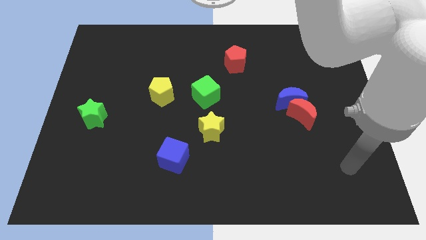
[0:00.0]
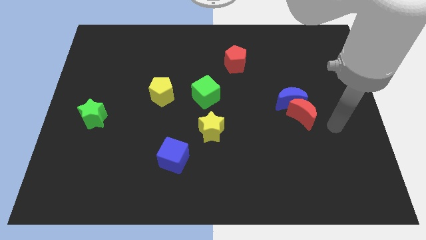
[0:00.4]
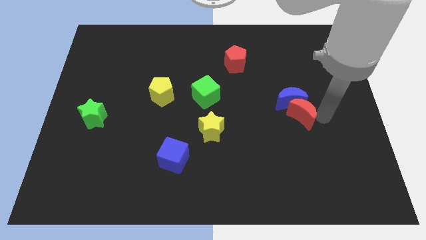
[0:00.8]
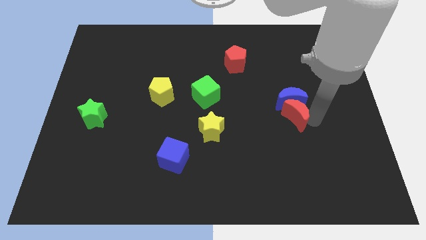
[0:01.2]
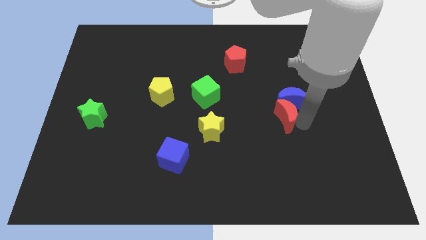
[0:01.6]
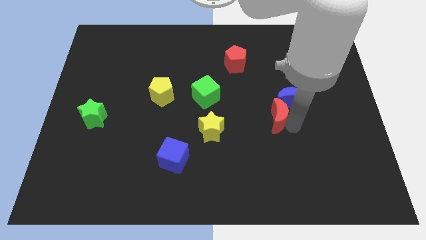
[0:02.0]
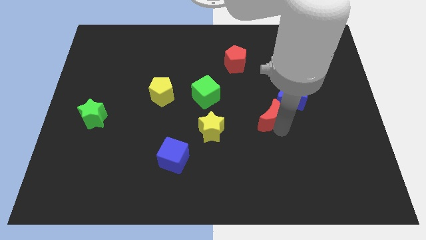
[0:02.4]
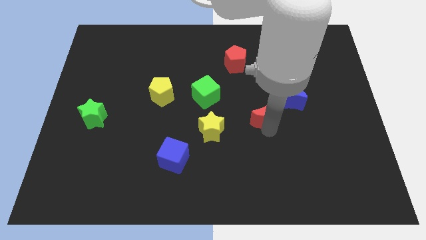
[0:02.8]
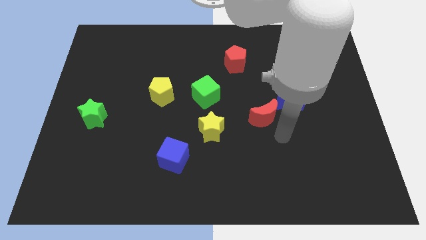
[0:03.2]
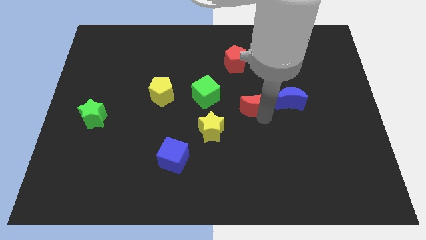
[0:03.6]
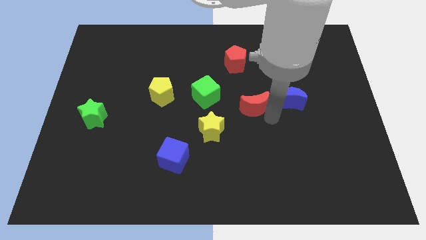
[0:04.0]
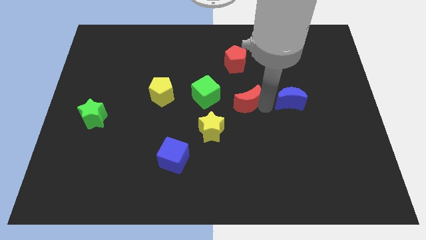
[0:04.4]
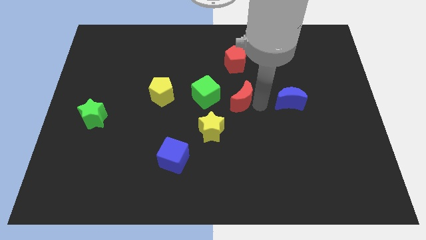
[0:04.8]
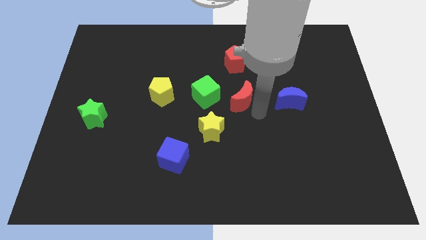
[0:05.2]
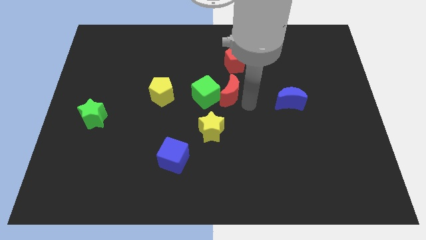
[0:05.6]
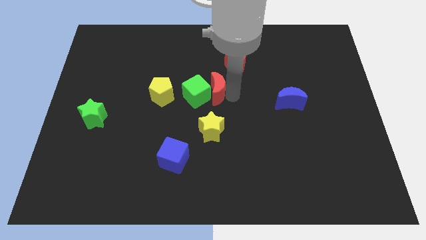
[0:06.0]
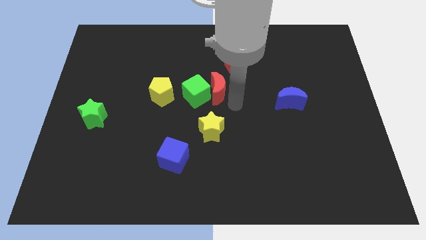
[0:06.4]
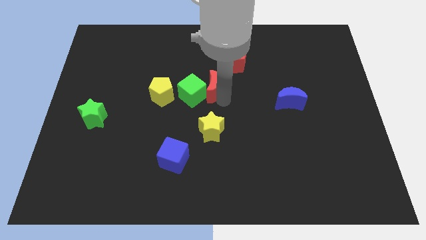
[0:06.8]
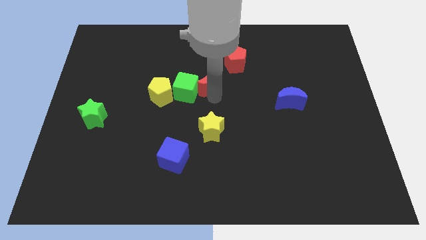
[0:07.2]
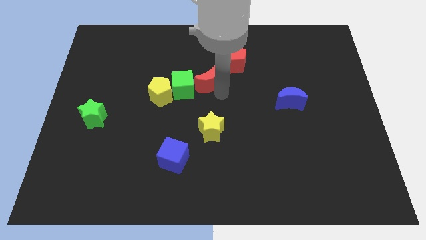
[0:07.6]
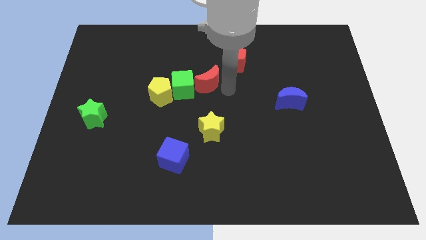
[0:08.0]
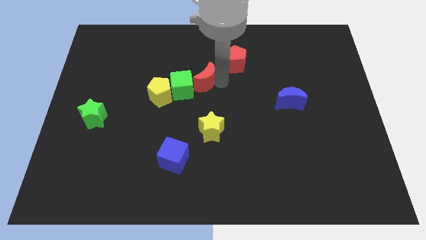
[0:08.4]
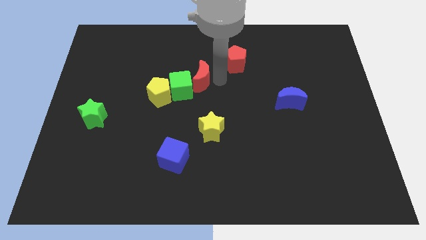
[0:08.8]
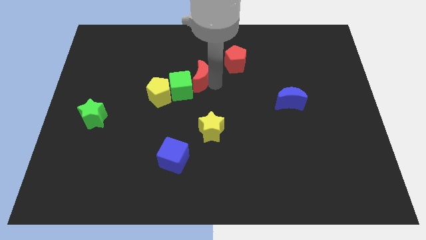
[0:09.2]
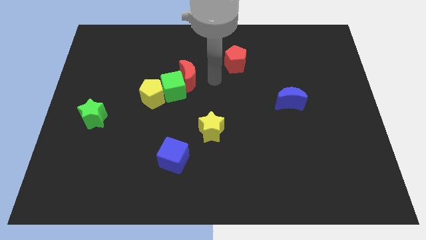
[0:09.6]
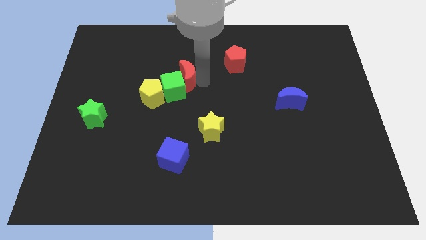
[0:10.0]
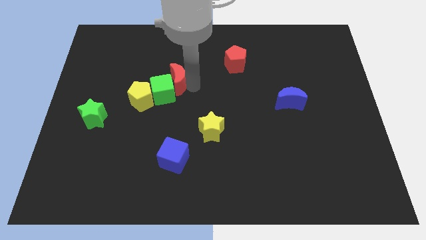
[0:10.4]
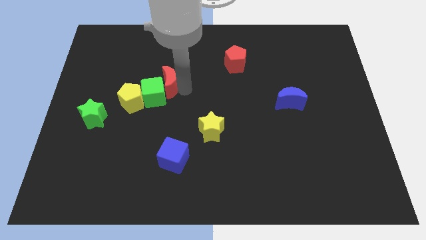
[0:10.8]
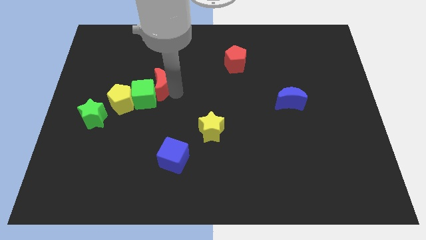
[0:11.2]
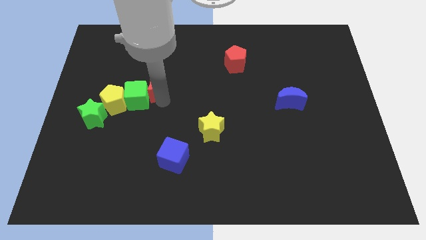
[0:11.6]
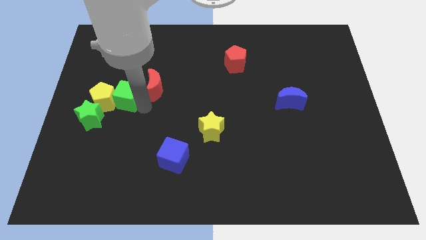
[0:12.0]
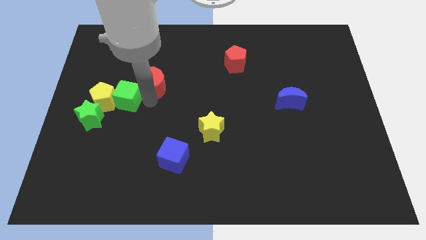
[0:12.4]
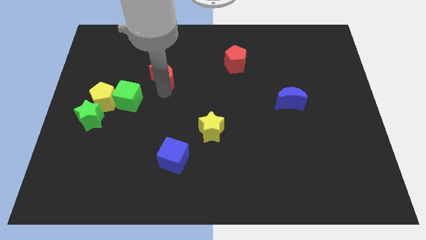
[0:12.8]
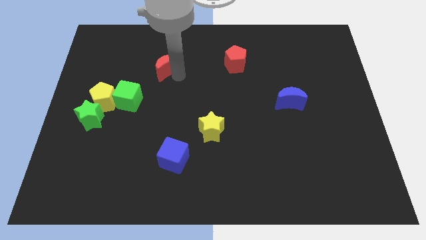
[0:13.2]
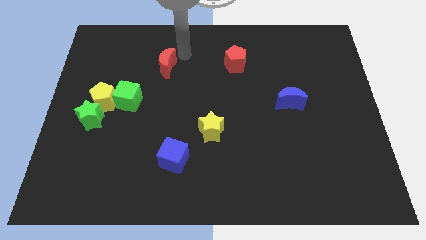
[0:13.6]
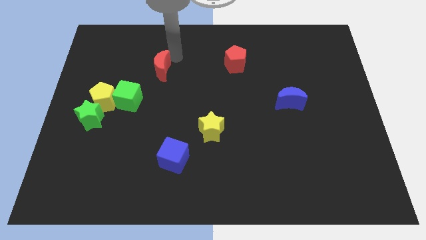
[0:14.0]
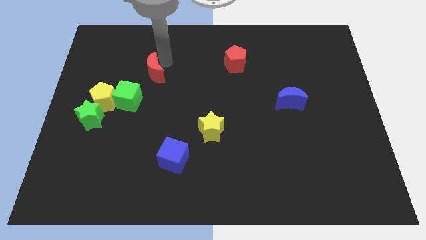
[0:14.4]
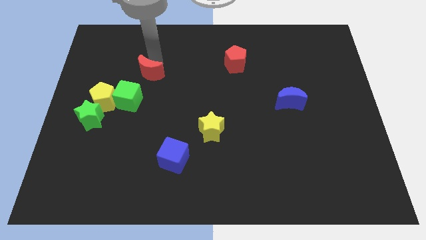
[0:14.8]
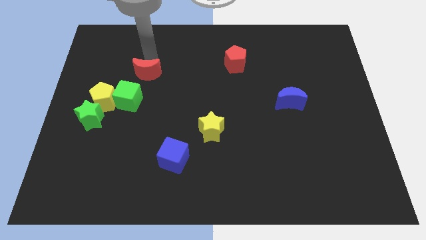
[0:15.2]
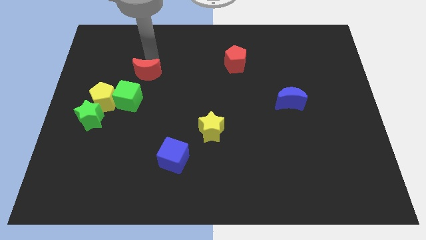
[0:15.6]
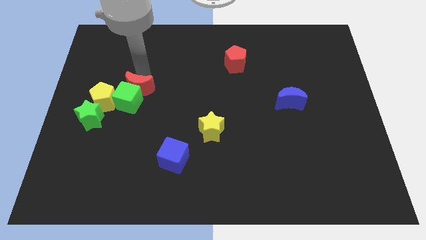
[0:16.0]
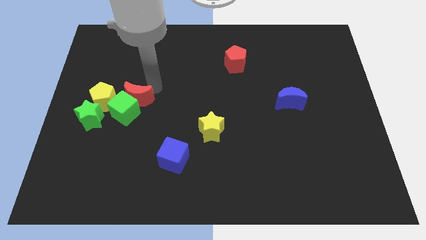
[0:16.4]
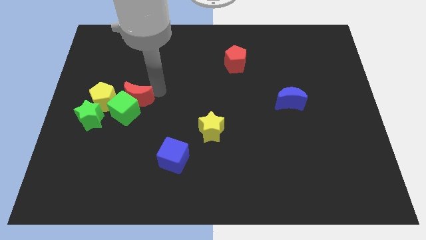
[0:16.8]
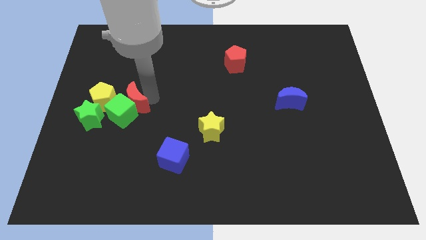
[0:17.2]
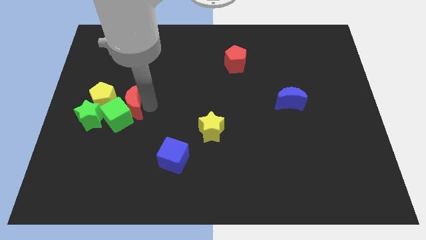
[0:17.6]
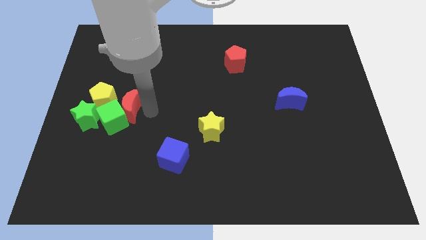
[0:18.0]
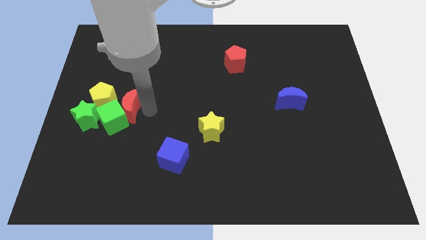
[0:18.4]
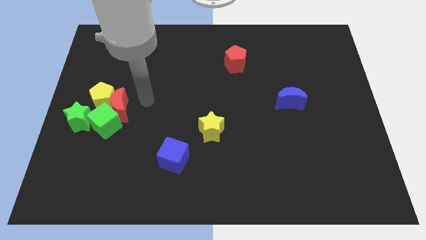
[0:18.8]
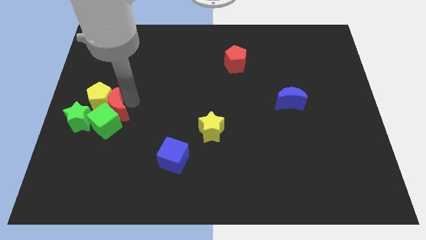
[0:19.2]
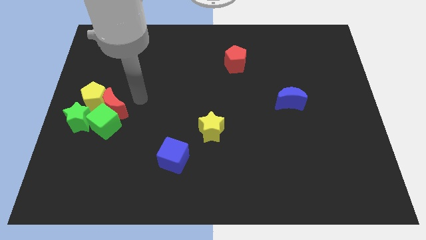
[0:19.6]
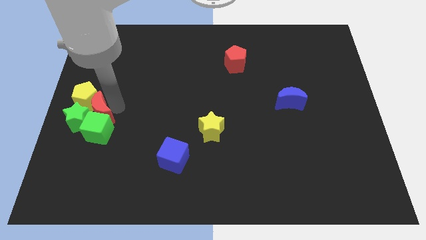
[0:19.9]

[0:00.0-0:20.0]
put the red moon to the green star

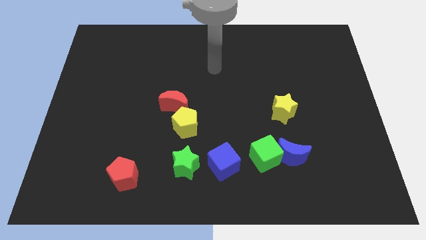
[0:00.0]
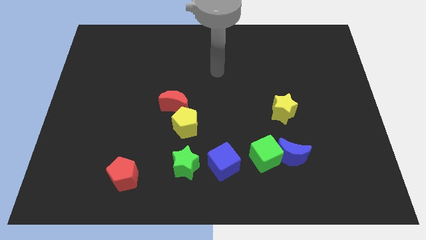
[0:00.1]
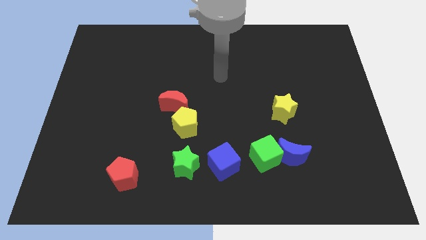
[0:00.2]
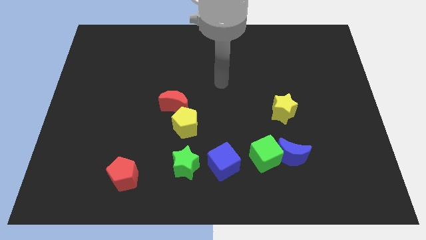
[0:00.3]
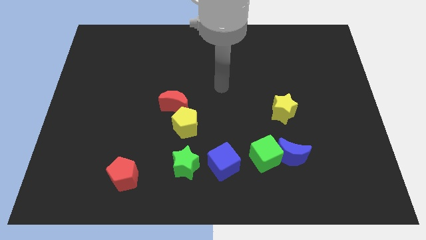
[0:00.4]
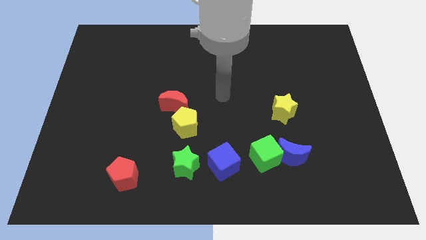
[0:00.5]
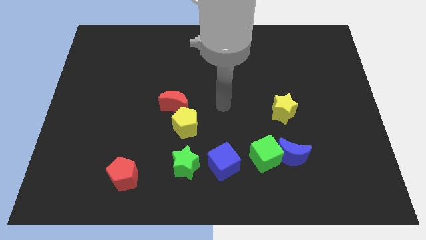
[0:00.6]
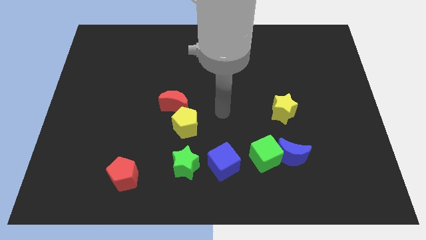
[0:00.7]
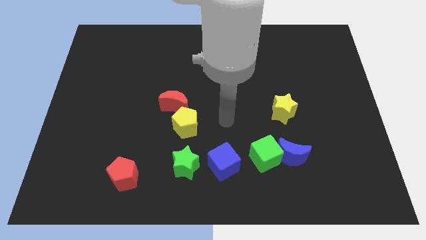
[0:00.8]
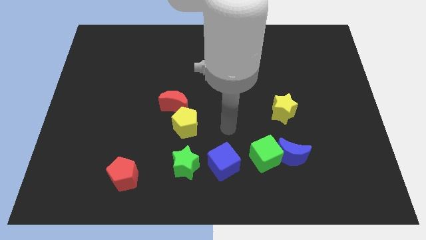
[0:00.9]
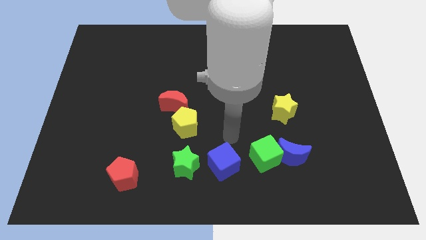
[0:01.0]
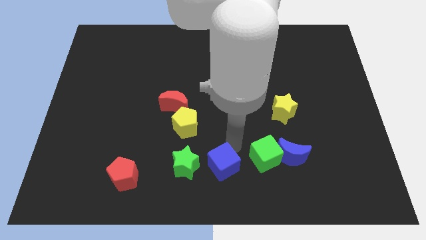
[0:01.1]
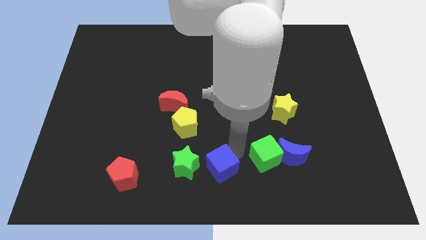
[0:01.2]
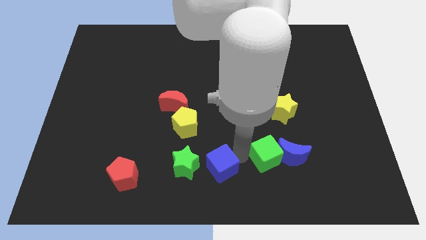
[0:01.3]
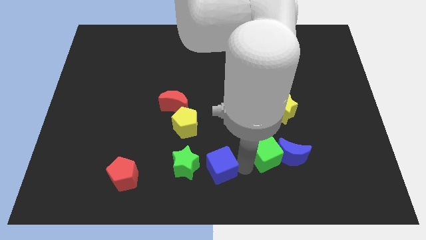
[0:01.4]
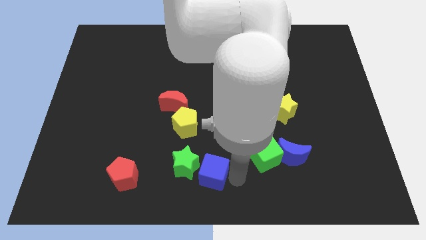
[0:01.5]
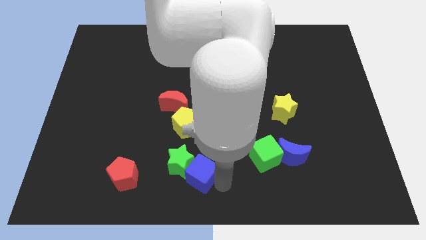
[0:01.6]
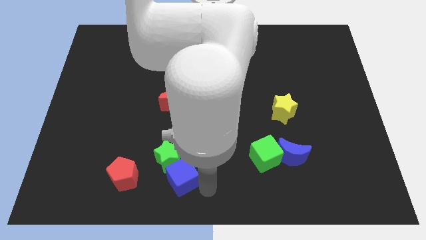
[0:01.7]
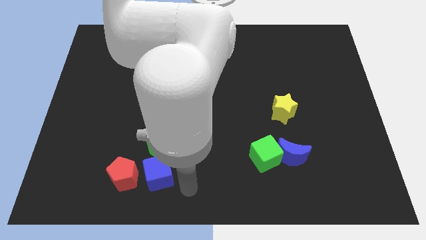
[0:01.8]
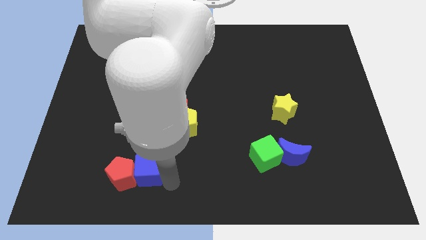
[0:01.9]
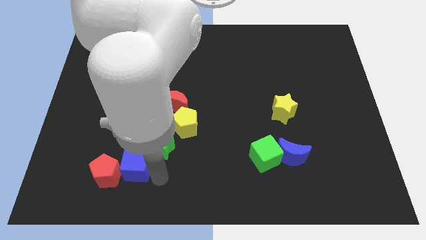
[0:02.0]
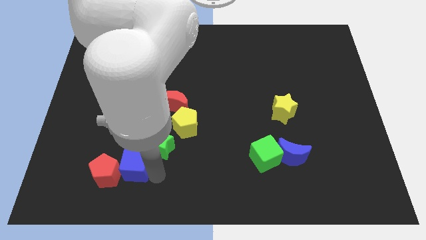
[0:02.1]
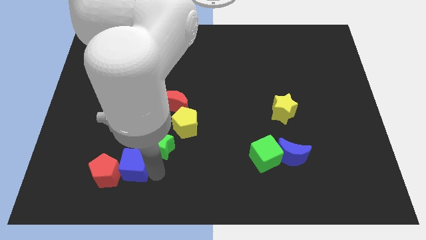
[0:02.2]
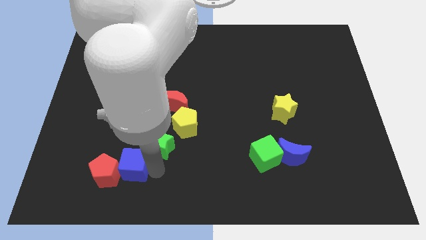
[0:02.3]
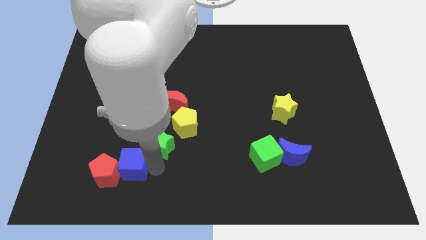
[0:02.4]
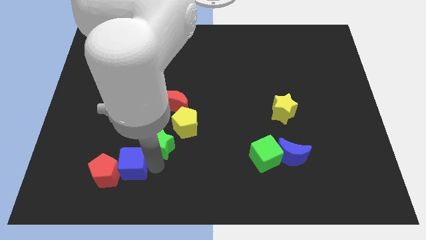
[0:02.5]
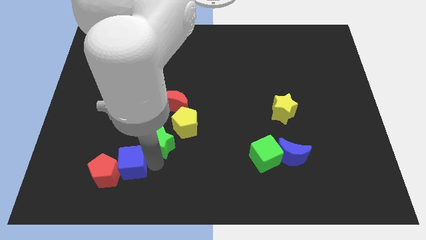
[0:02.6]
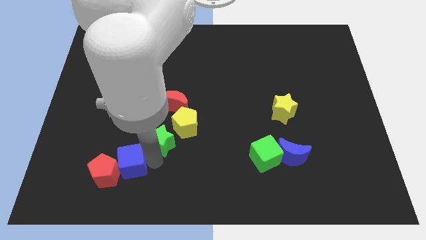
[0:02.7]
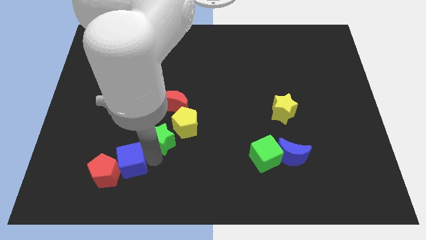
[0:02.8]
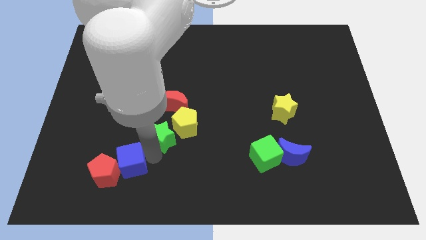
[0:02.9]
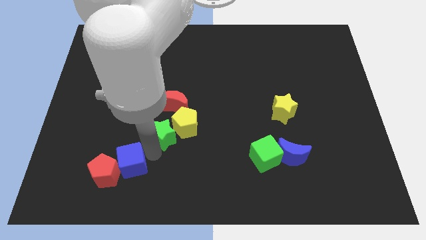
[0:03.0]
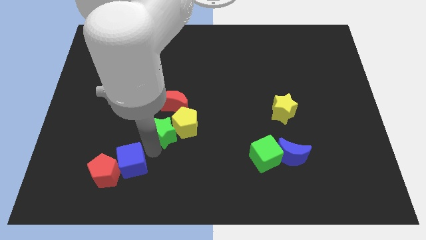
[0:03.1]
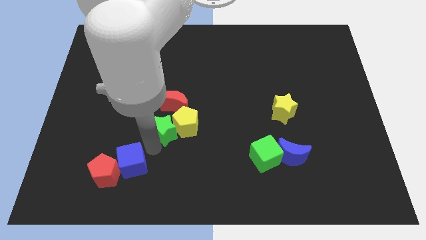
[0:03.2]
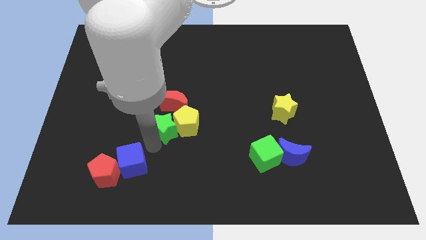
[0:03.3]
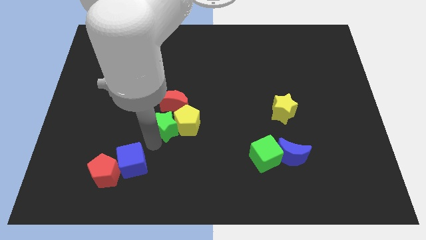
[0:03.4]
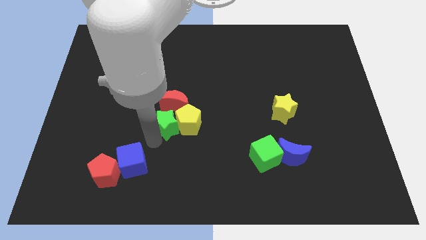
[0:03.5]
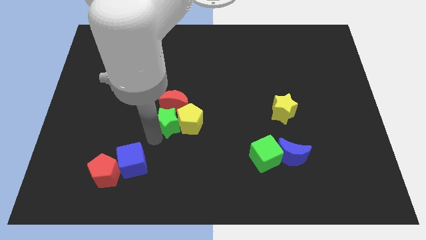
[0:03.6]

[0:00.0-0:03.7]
put the green star next to the red moon
